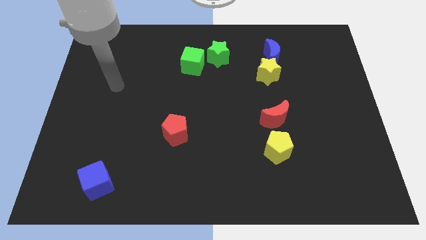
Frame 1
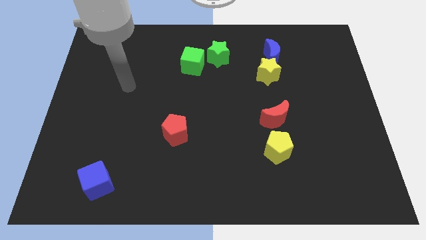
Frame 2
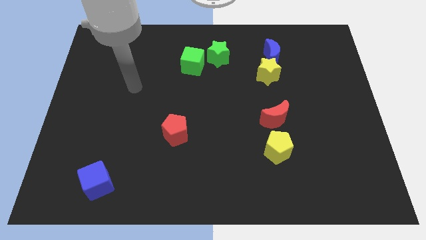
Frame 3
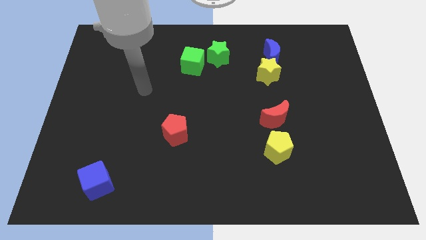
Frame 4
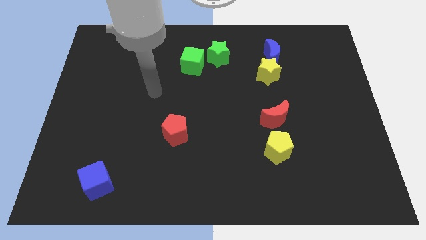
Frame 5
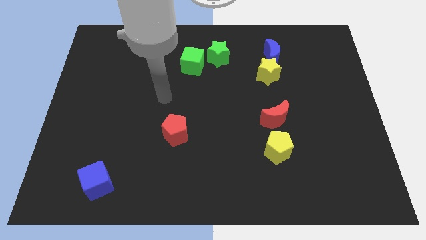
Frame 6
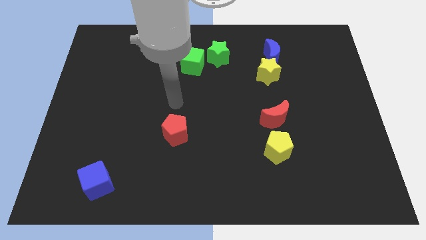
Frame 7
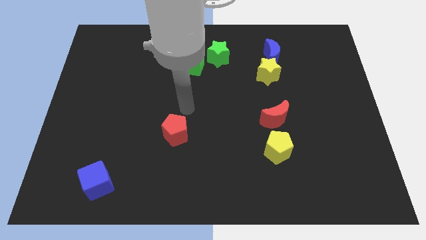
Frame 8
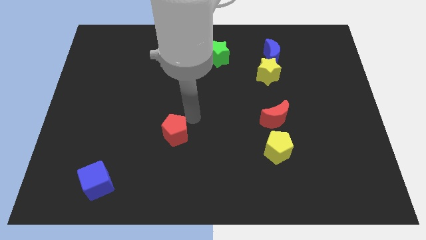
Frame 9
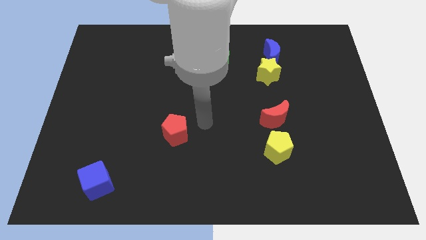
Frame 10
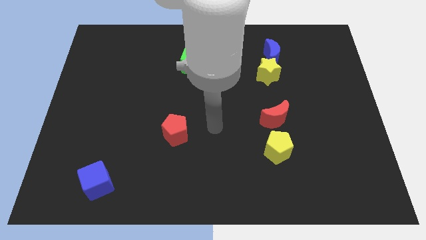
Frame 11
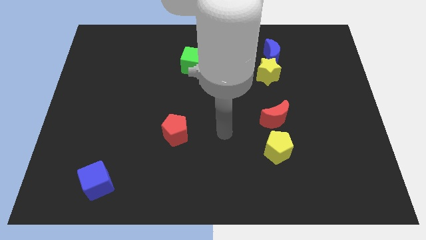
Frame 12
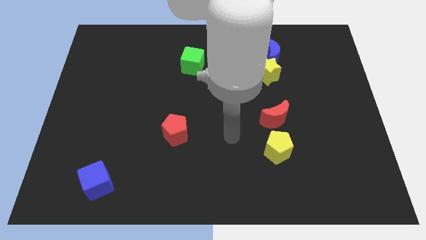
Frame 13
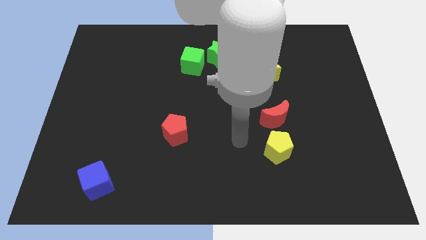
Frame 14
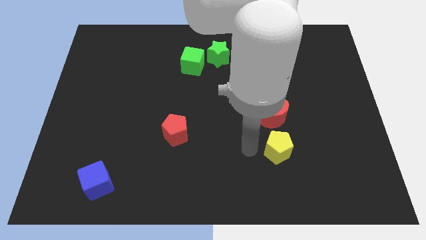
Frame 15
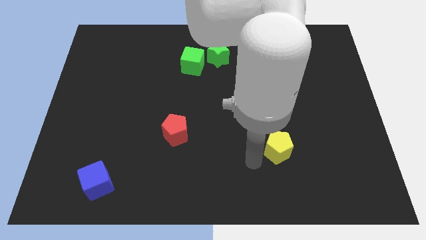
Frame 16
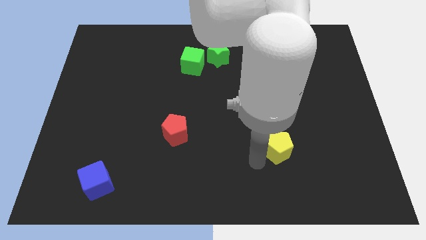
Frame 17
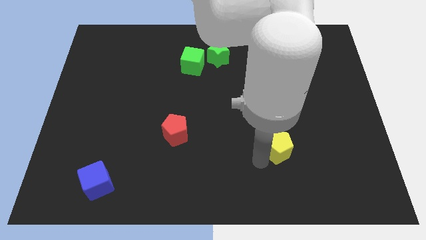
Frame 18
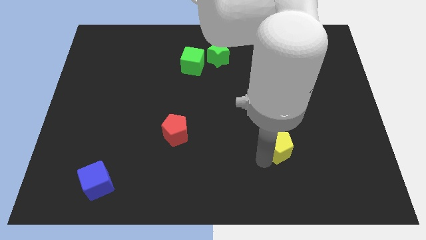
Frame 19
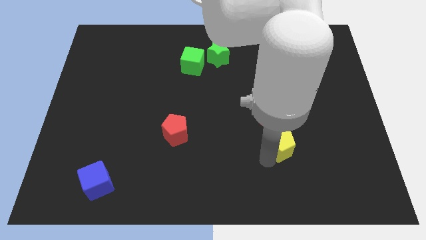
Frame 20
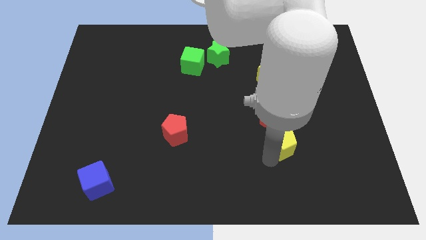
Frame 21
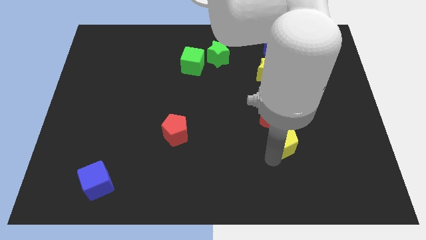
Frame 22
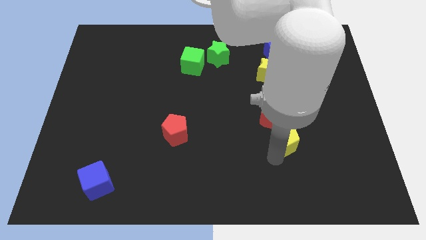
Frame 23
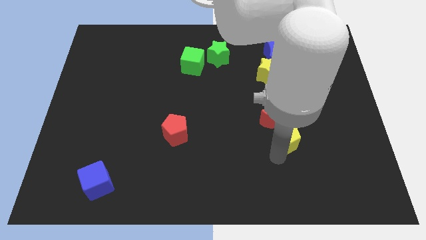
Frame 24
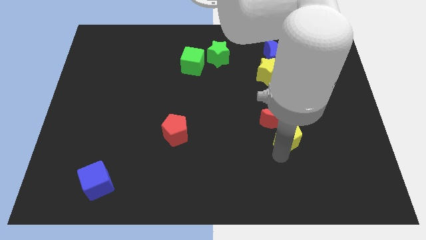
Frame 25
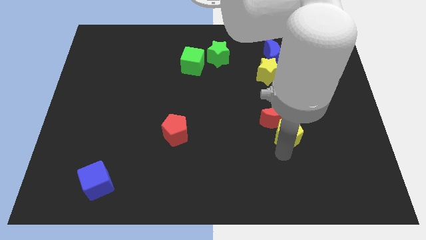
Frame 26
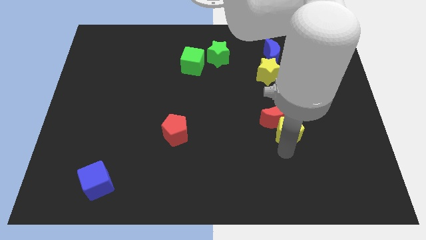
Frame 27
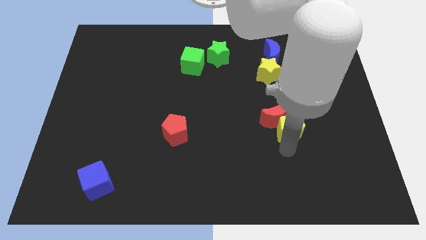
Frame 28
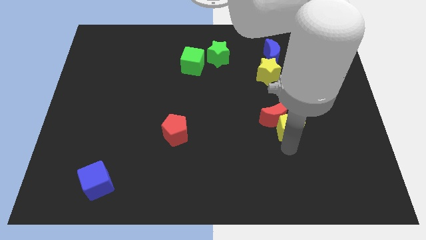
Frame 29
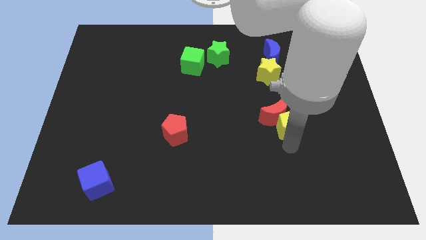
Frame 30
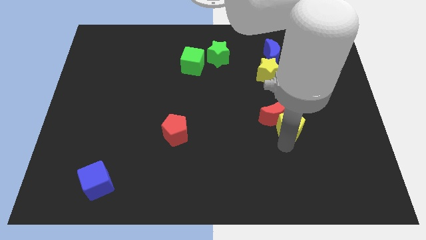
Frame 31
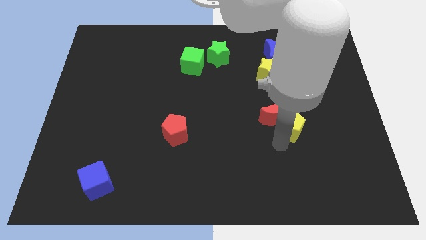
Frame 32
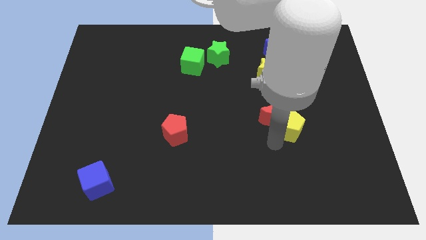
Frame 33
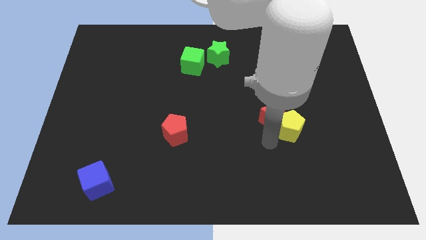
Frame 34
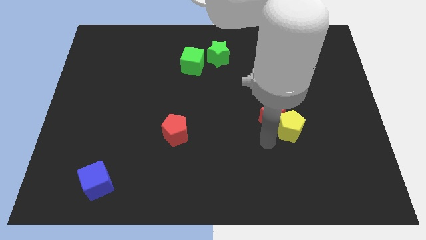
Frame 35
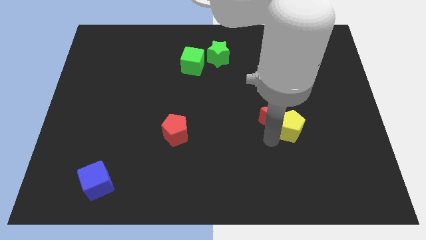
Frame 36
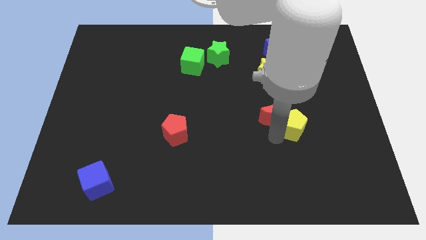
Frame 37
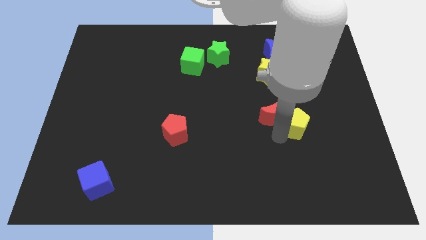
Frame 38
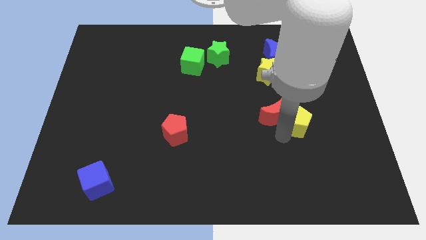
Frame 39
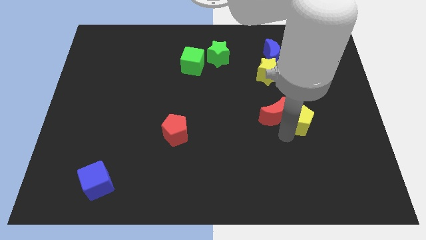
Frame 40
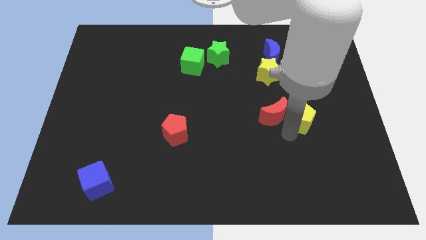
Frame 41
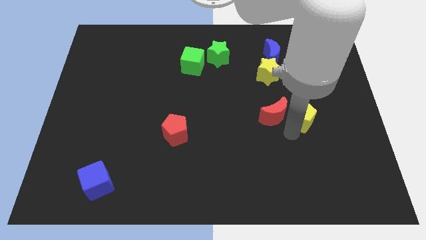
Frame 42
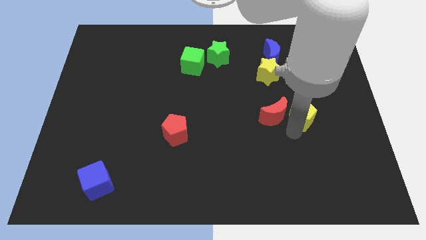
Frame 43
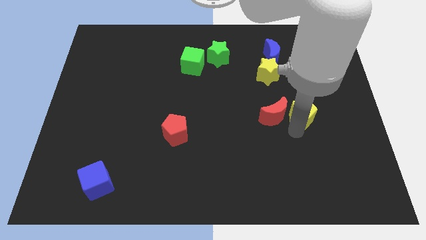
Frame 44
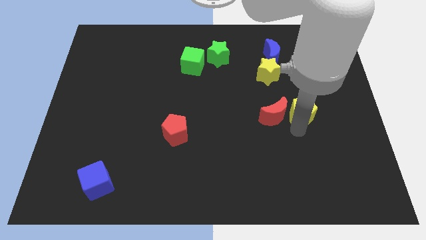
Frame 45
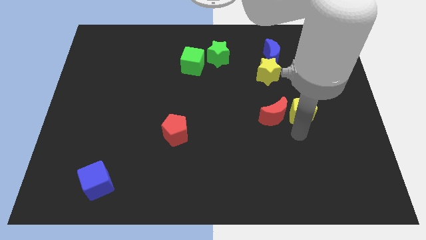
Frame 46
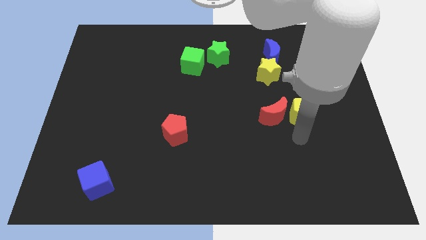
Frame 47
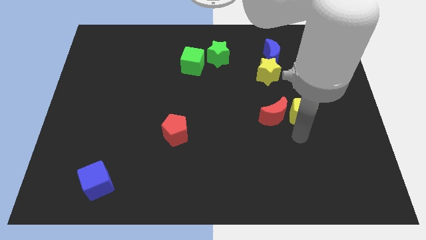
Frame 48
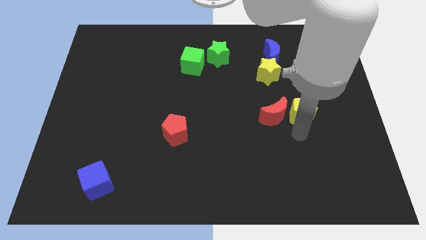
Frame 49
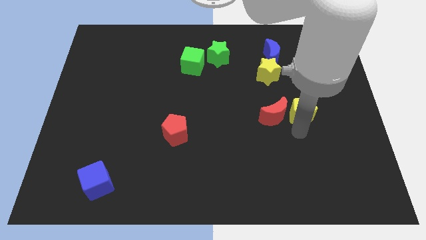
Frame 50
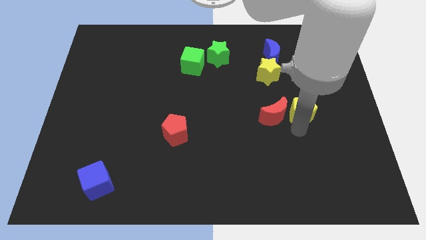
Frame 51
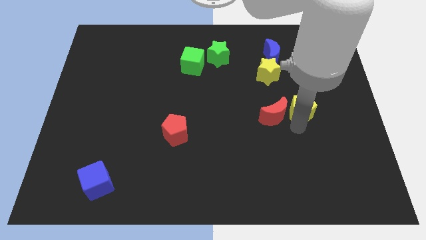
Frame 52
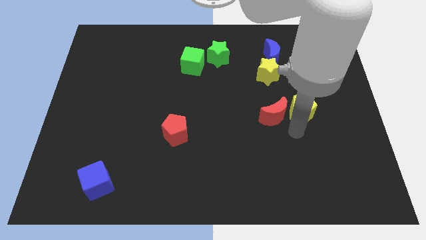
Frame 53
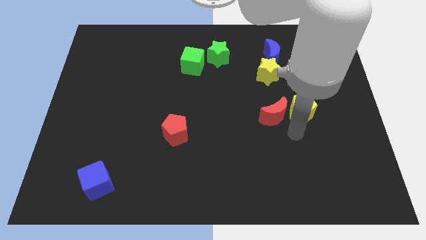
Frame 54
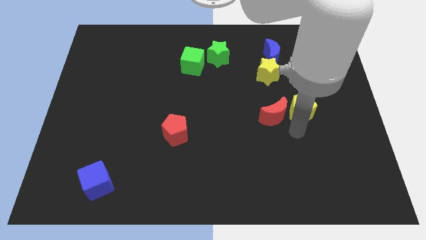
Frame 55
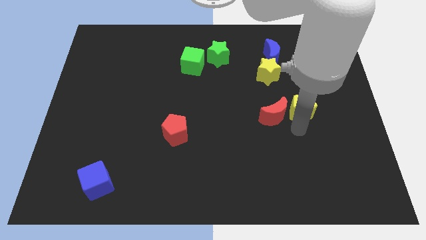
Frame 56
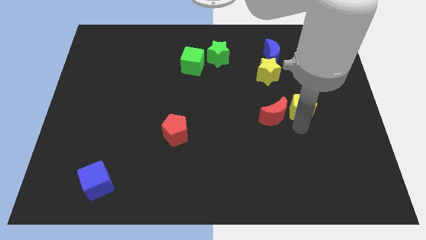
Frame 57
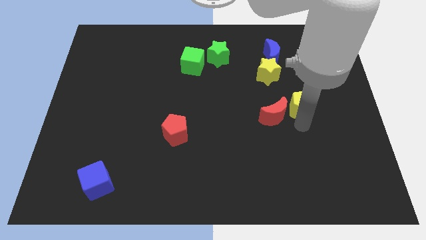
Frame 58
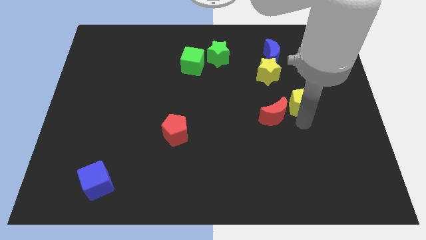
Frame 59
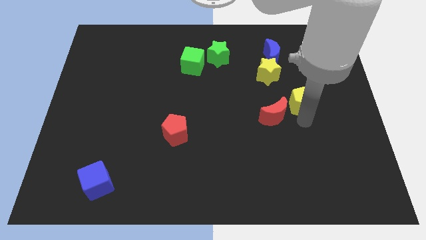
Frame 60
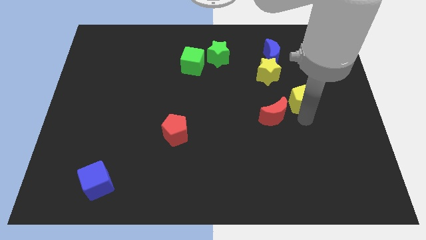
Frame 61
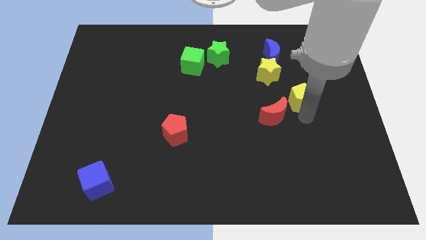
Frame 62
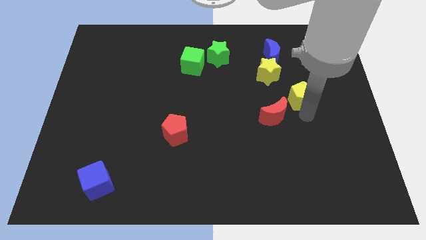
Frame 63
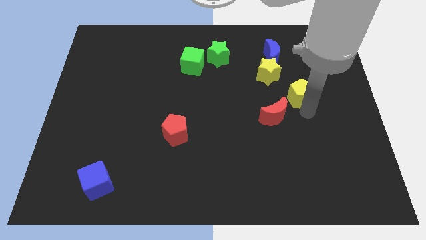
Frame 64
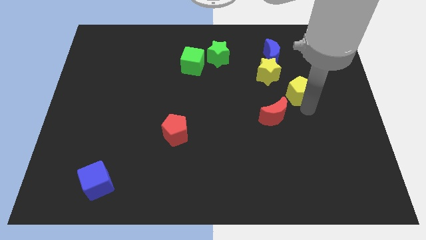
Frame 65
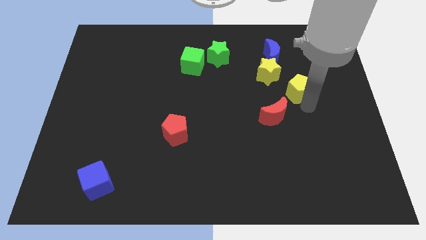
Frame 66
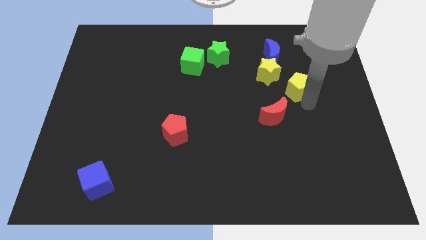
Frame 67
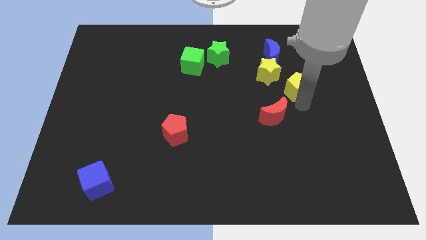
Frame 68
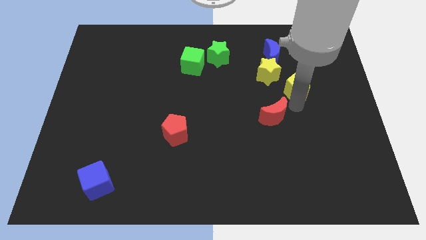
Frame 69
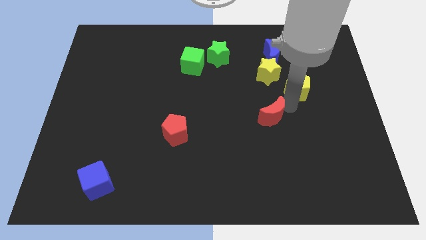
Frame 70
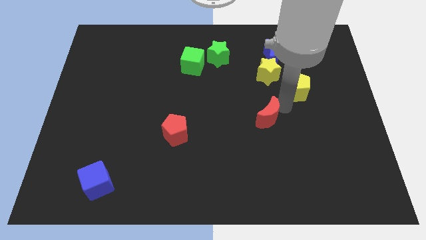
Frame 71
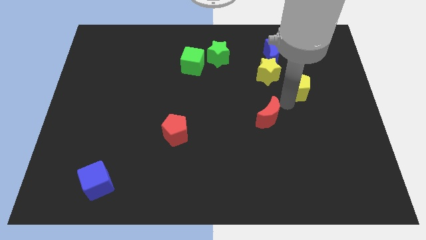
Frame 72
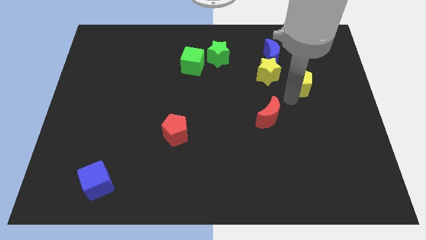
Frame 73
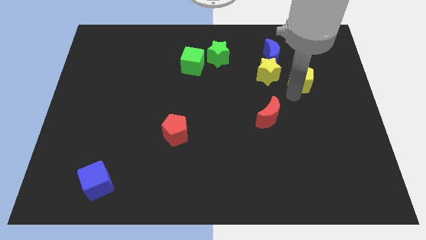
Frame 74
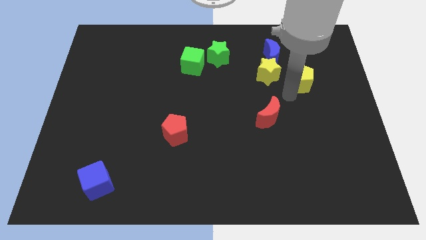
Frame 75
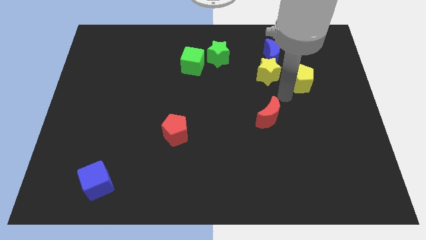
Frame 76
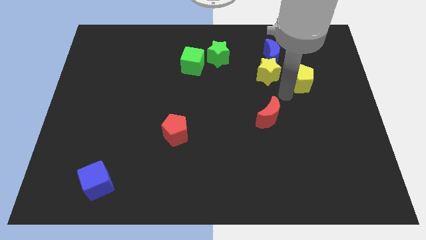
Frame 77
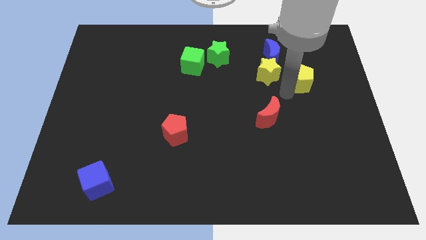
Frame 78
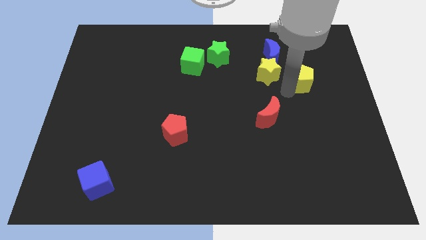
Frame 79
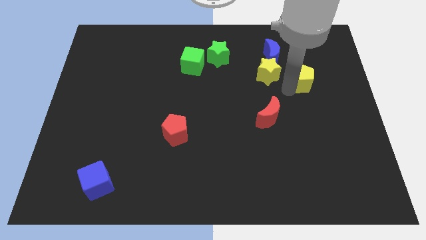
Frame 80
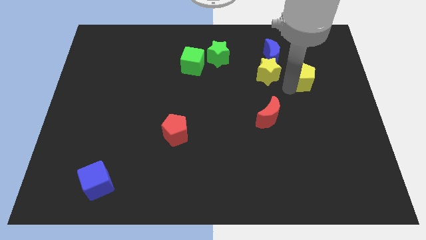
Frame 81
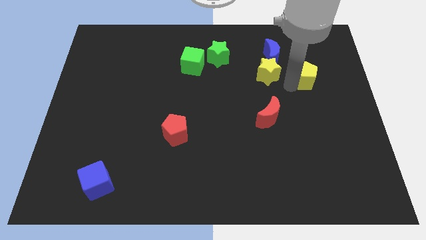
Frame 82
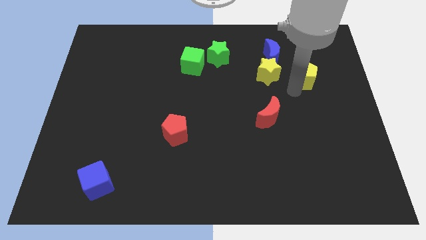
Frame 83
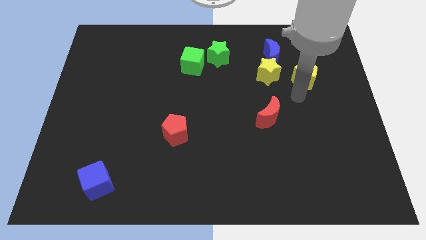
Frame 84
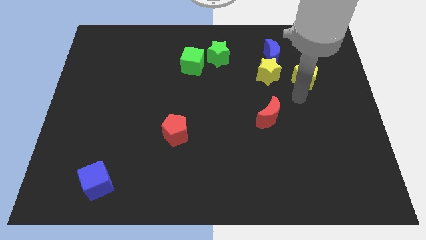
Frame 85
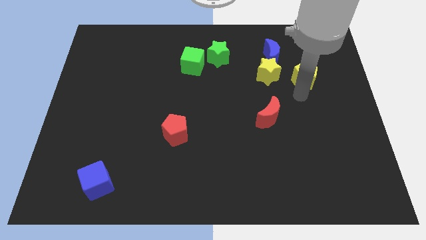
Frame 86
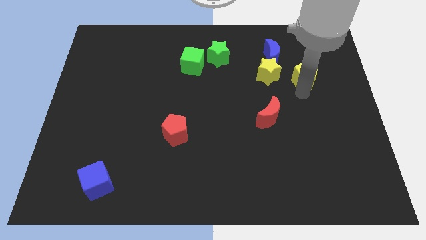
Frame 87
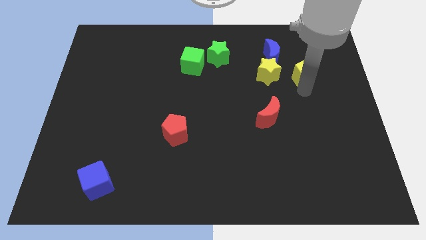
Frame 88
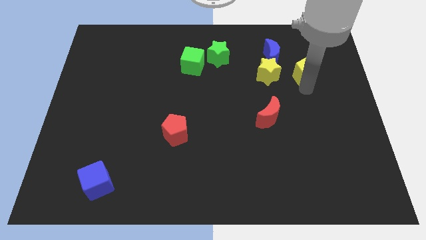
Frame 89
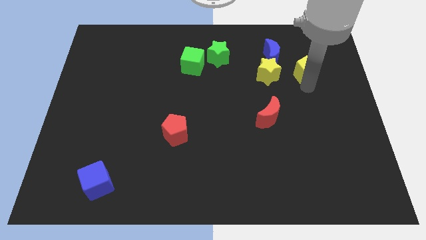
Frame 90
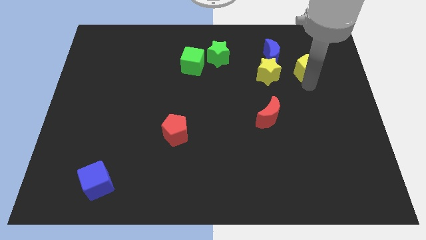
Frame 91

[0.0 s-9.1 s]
put the yellow pentagon right of the blue moon
